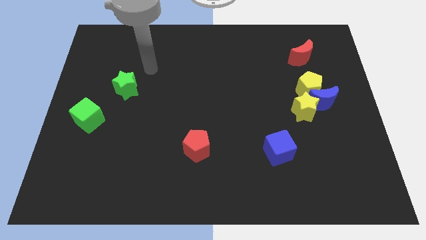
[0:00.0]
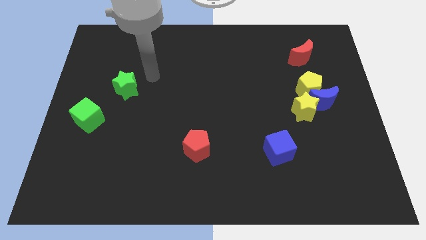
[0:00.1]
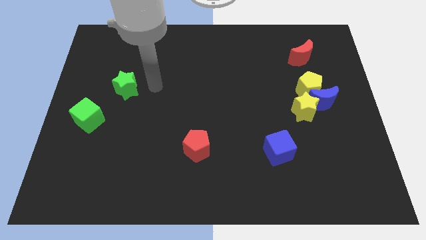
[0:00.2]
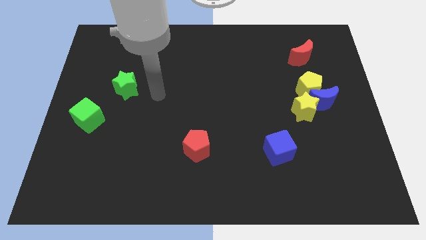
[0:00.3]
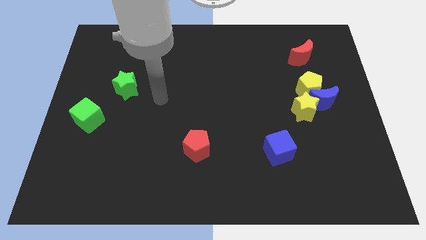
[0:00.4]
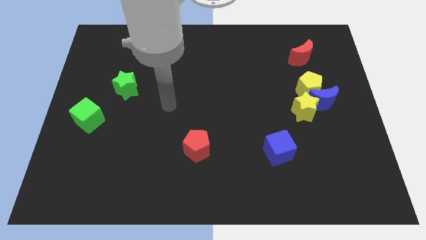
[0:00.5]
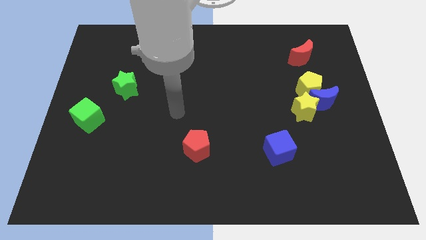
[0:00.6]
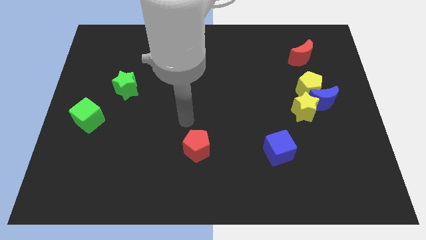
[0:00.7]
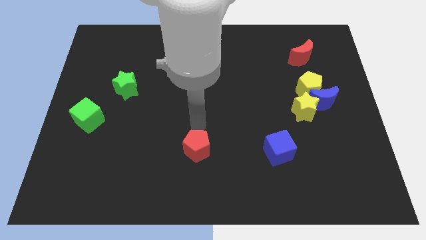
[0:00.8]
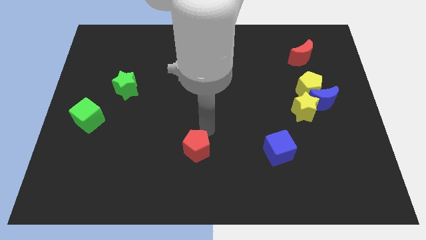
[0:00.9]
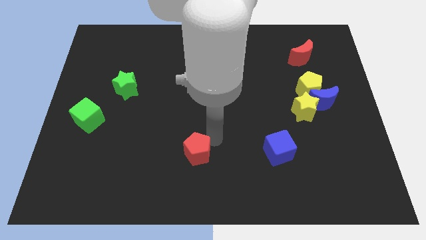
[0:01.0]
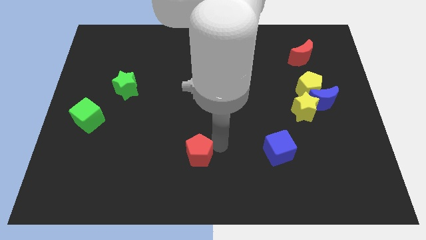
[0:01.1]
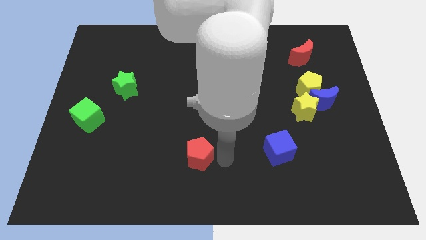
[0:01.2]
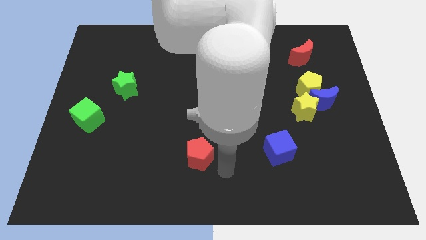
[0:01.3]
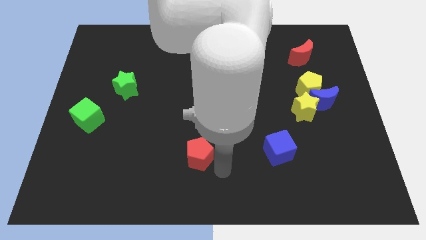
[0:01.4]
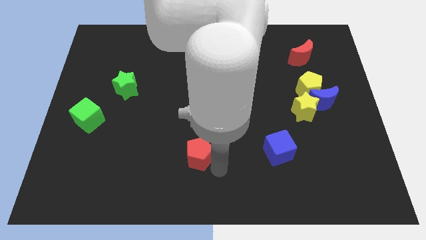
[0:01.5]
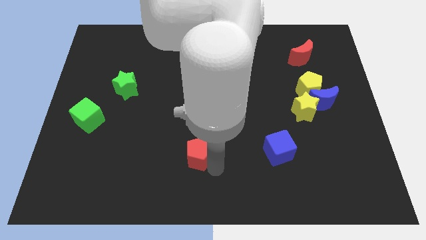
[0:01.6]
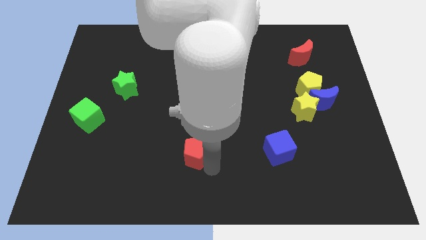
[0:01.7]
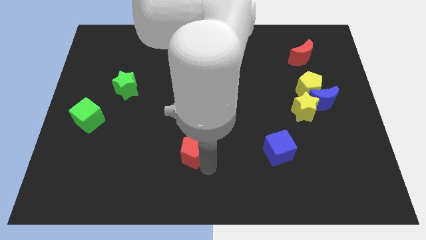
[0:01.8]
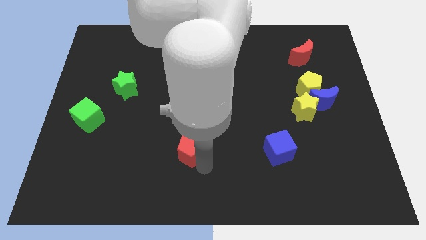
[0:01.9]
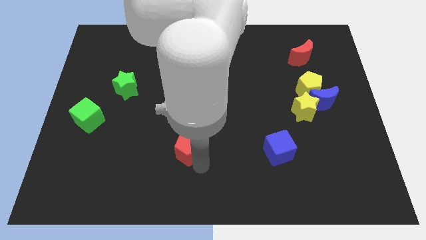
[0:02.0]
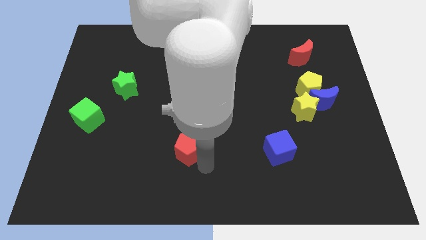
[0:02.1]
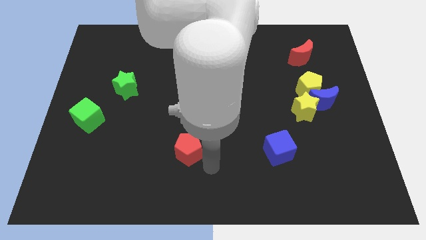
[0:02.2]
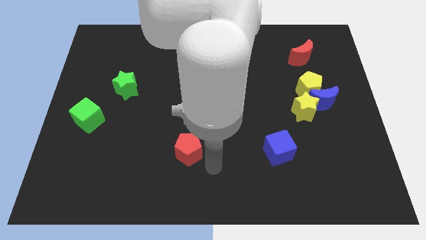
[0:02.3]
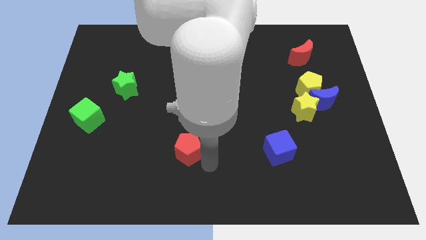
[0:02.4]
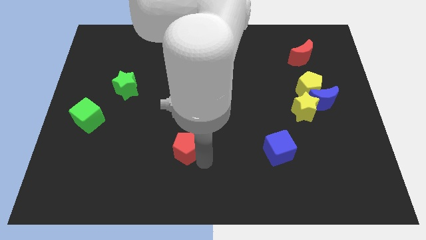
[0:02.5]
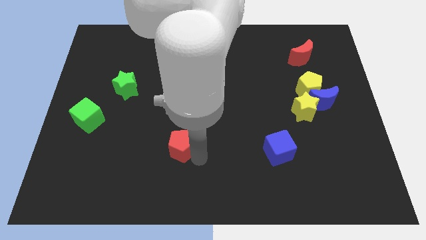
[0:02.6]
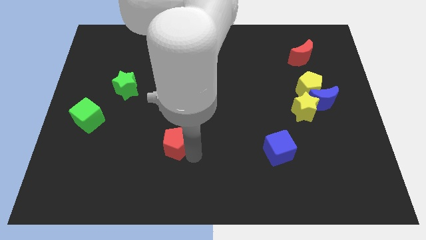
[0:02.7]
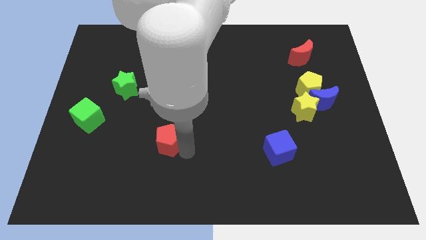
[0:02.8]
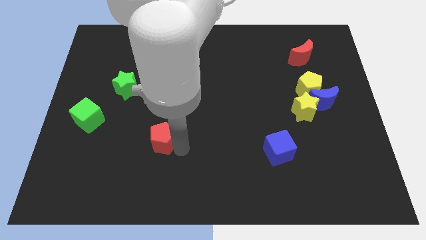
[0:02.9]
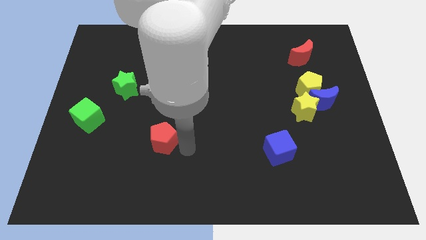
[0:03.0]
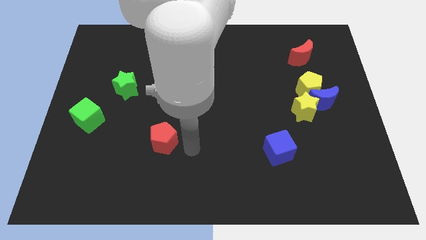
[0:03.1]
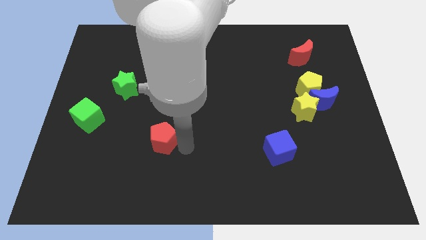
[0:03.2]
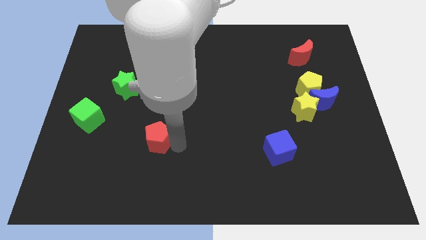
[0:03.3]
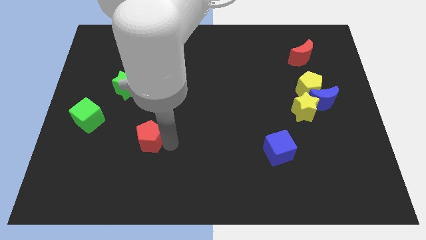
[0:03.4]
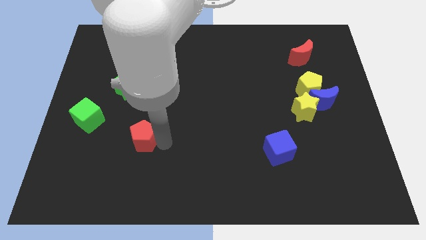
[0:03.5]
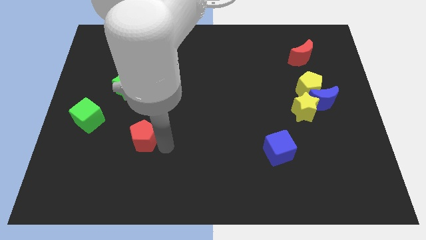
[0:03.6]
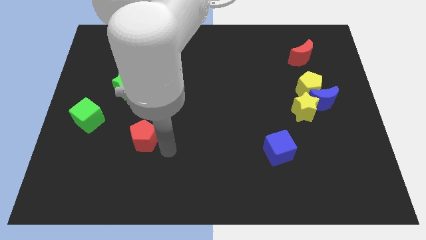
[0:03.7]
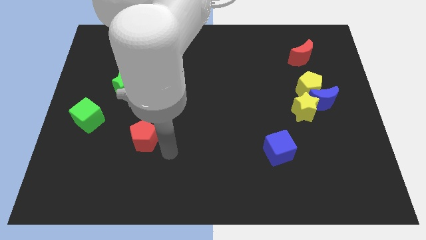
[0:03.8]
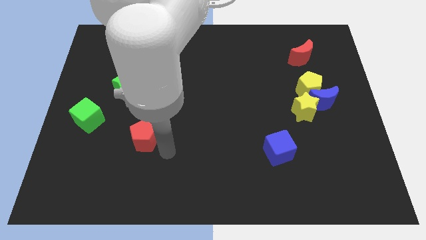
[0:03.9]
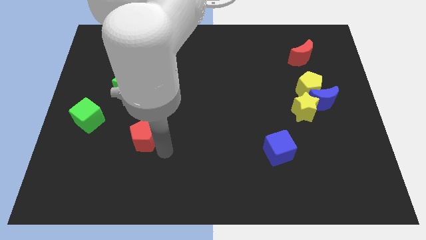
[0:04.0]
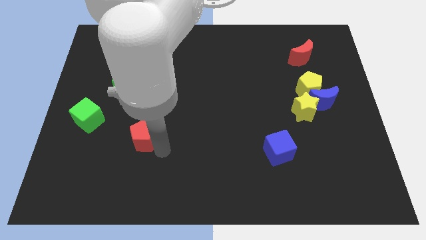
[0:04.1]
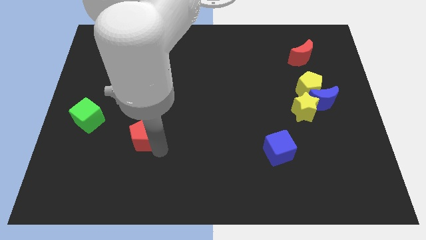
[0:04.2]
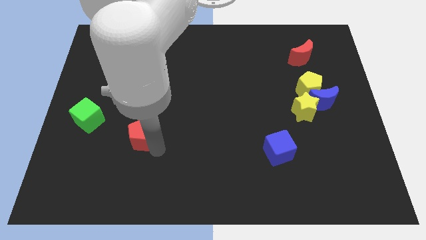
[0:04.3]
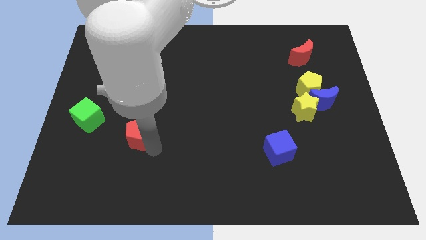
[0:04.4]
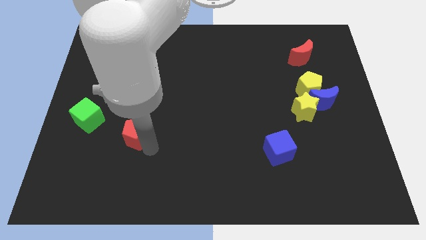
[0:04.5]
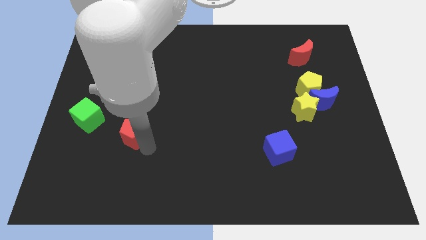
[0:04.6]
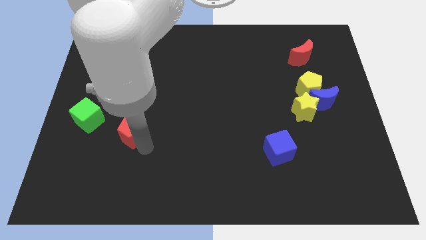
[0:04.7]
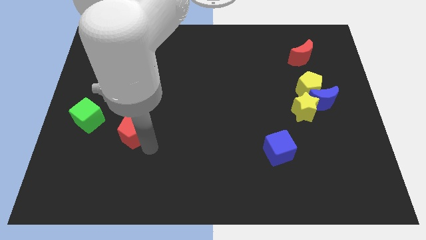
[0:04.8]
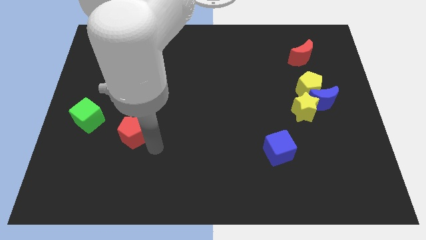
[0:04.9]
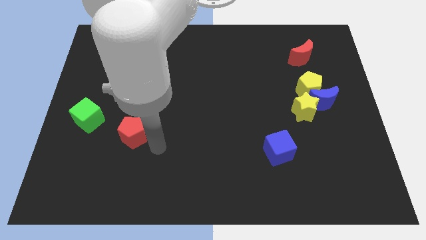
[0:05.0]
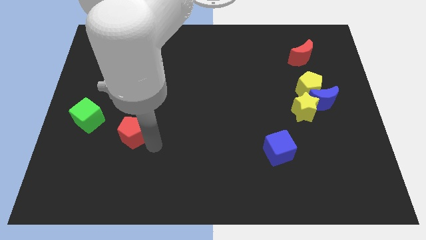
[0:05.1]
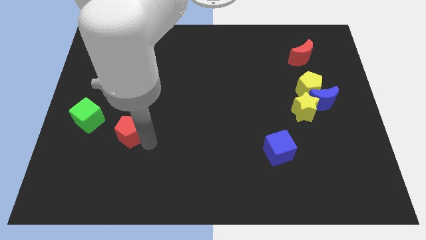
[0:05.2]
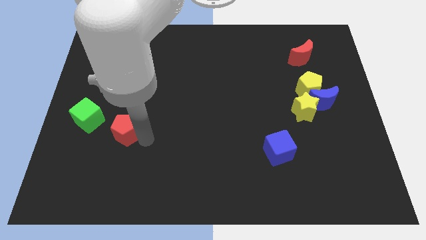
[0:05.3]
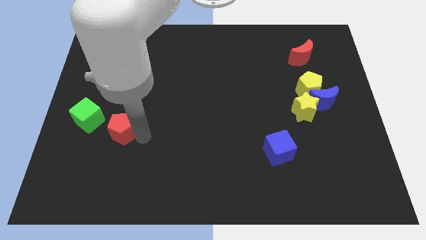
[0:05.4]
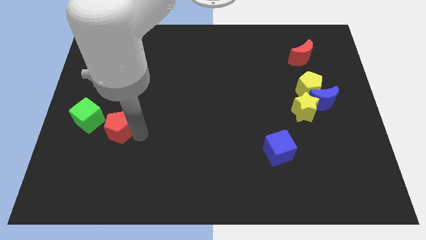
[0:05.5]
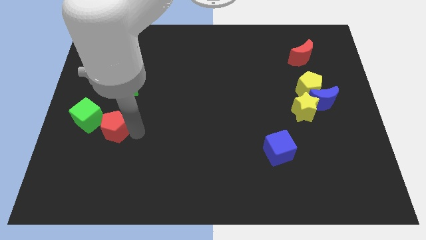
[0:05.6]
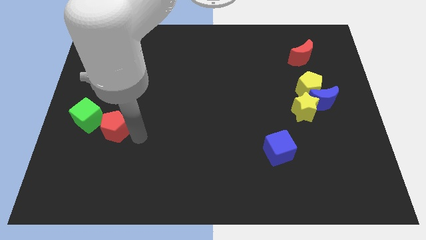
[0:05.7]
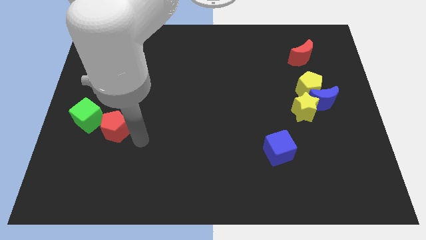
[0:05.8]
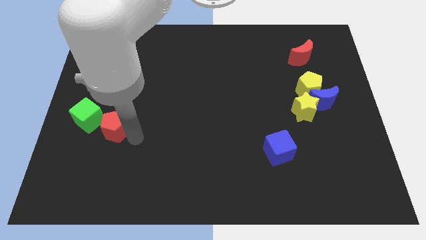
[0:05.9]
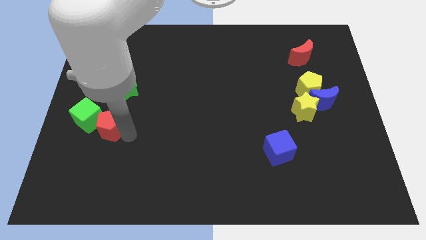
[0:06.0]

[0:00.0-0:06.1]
move the red pentagon to the green cube

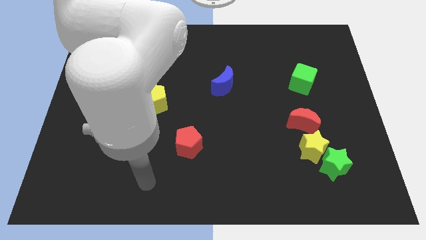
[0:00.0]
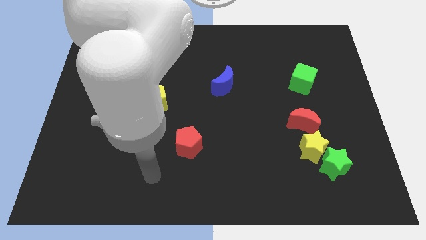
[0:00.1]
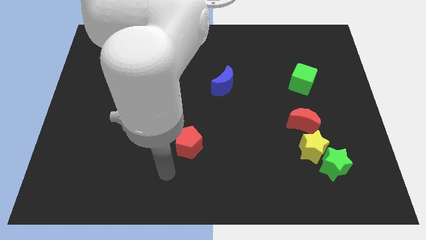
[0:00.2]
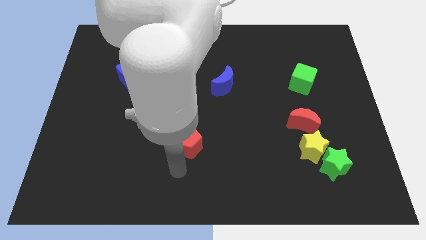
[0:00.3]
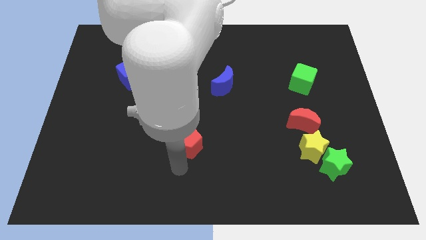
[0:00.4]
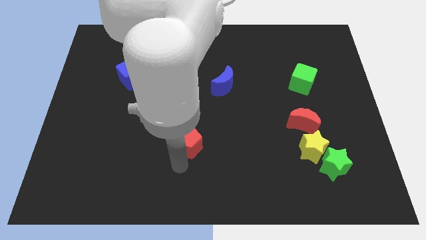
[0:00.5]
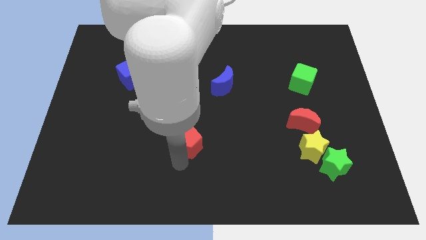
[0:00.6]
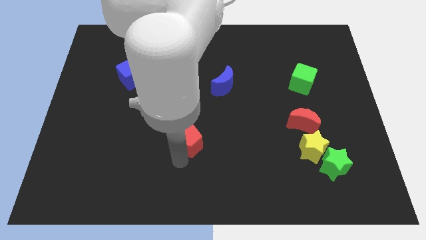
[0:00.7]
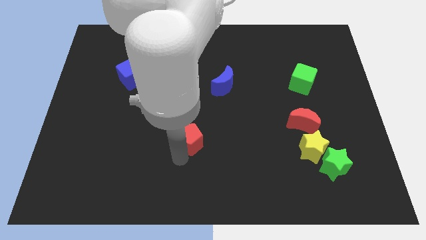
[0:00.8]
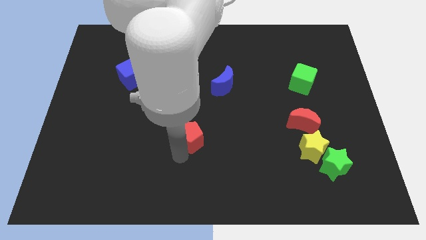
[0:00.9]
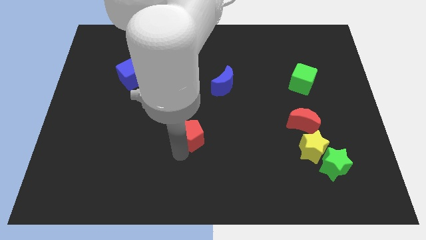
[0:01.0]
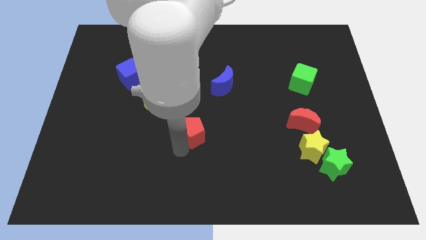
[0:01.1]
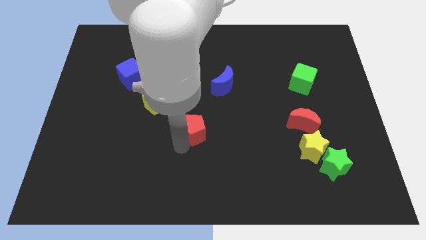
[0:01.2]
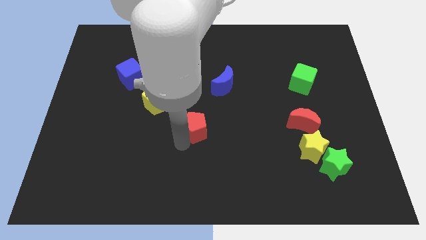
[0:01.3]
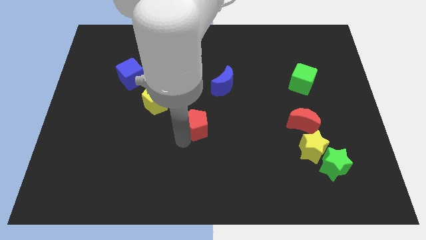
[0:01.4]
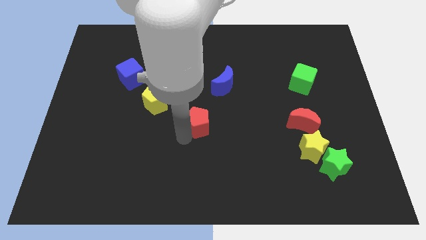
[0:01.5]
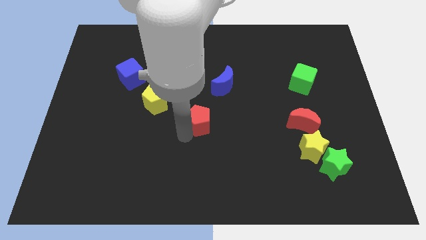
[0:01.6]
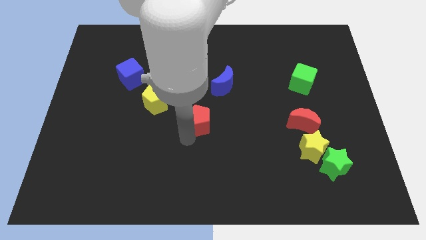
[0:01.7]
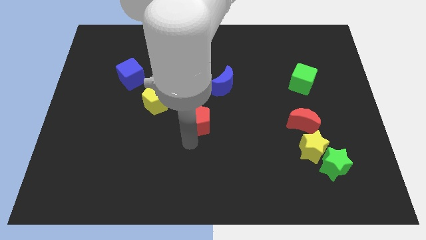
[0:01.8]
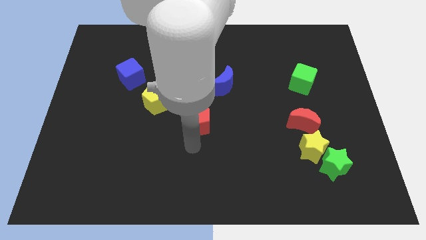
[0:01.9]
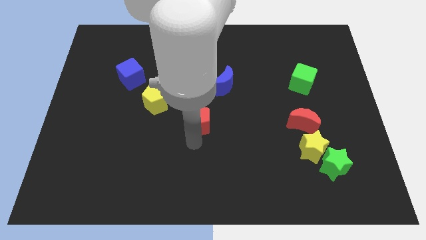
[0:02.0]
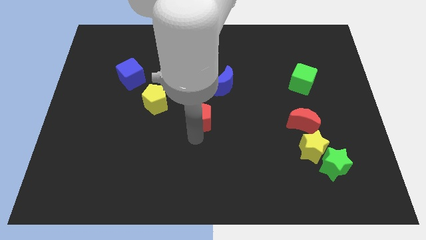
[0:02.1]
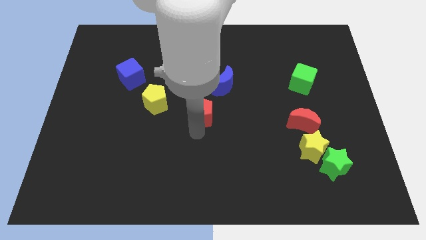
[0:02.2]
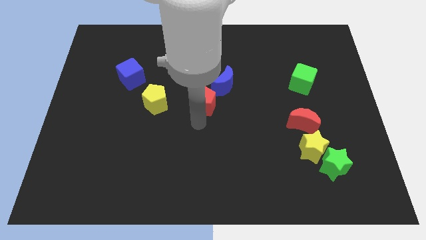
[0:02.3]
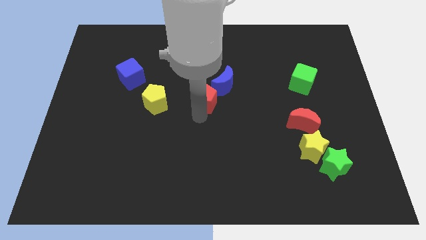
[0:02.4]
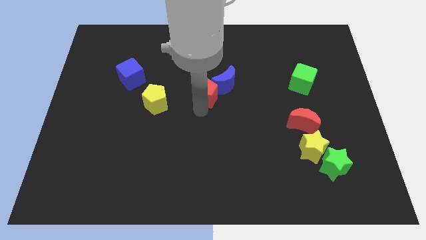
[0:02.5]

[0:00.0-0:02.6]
put the red pentagon towards the blue moon
